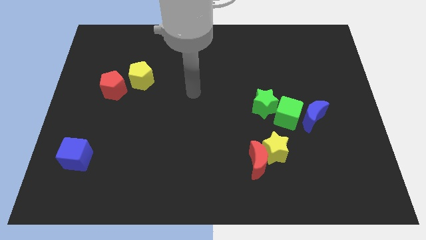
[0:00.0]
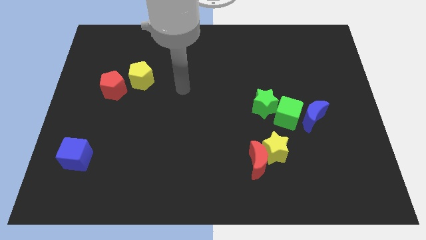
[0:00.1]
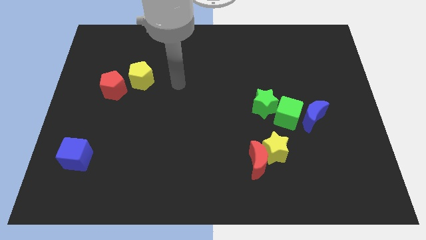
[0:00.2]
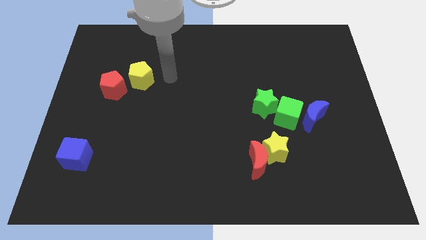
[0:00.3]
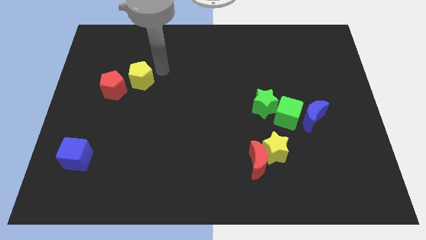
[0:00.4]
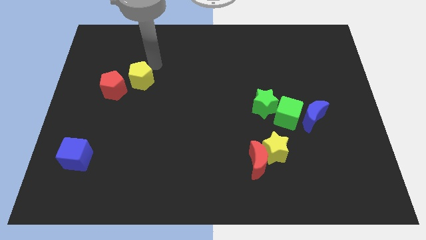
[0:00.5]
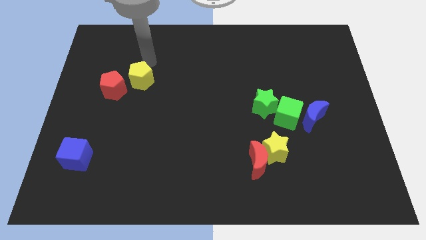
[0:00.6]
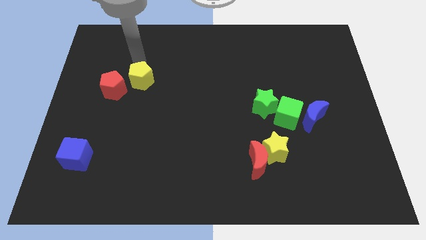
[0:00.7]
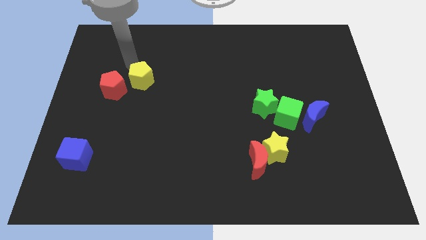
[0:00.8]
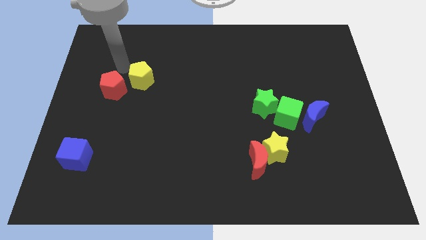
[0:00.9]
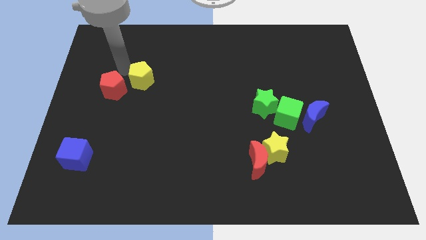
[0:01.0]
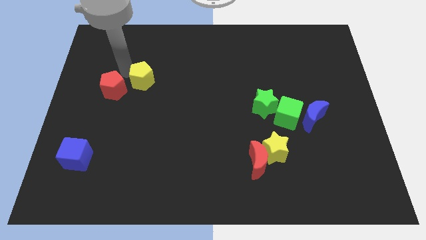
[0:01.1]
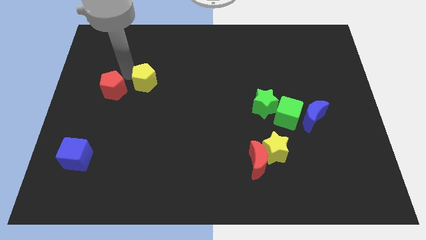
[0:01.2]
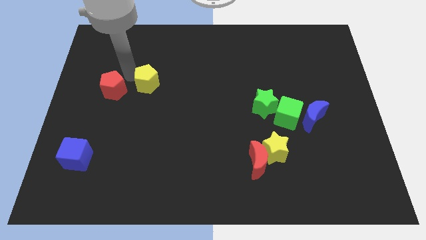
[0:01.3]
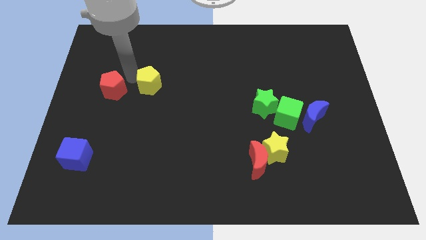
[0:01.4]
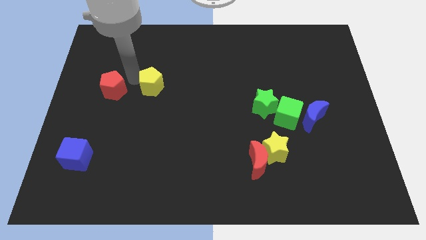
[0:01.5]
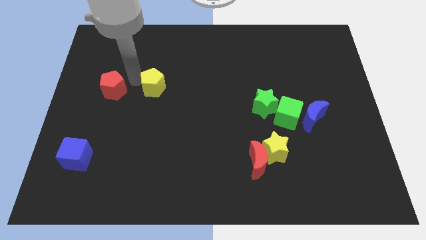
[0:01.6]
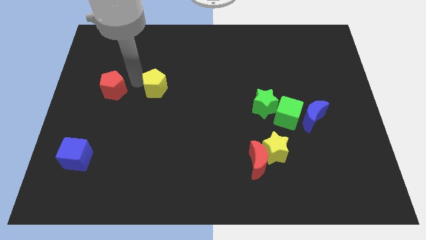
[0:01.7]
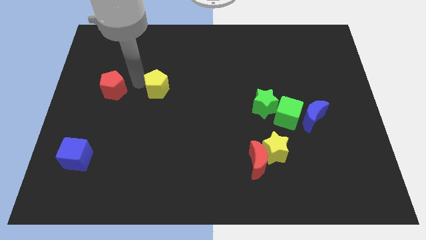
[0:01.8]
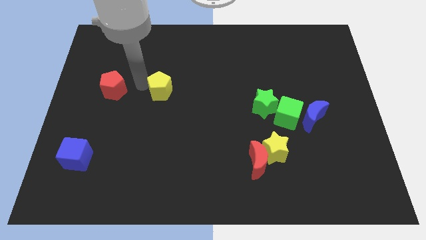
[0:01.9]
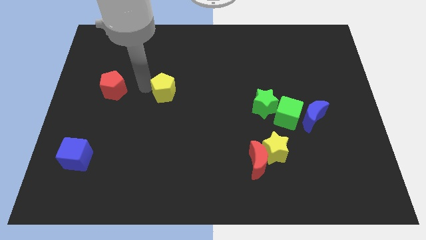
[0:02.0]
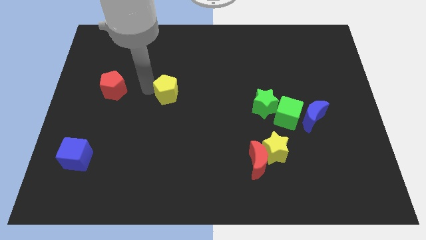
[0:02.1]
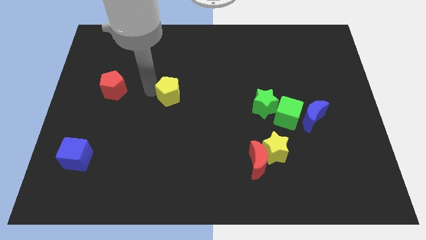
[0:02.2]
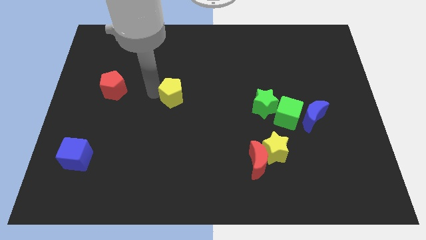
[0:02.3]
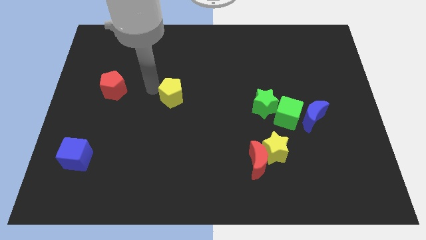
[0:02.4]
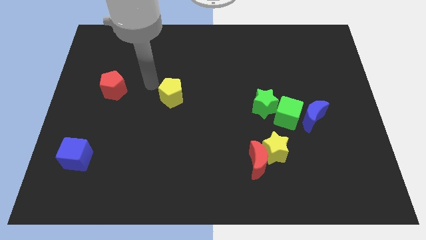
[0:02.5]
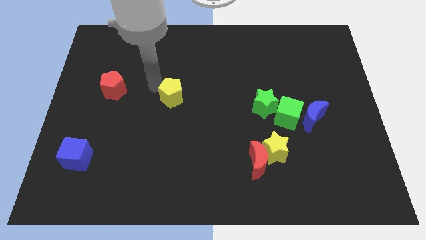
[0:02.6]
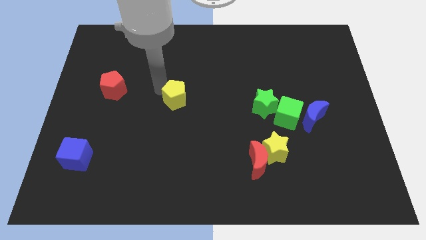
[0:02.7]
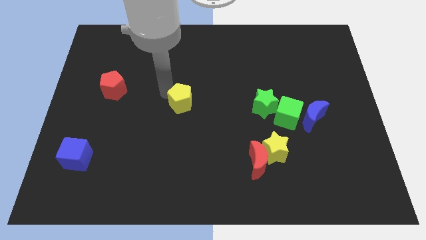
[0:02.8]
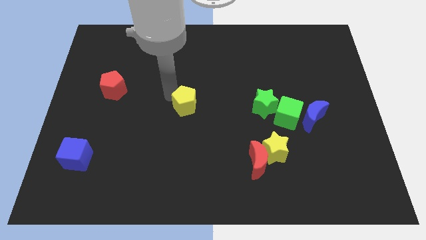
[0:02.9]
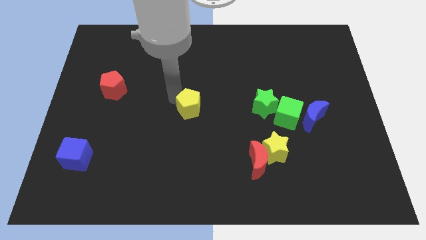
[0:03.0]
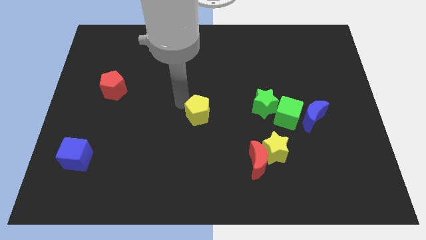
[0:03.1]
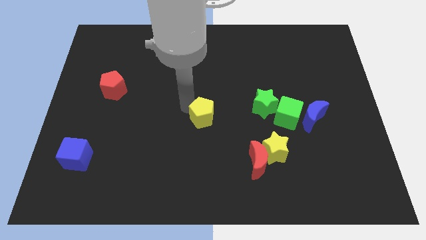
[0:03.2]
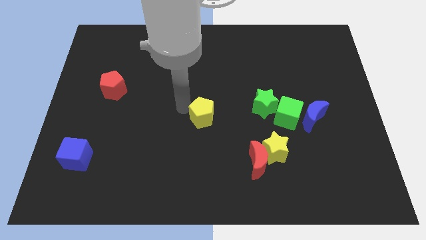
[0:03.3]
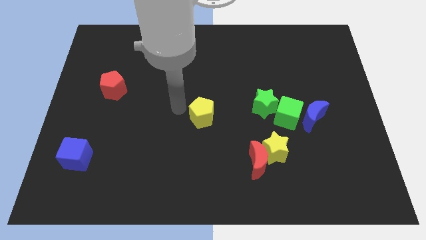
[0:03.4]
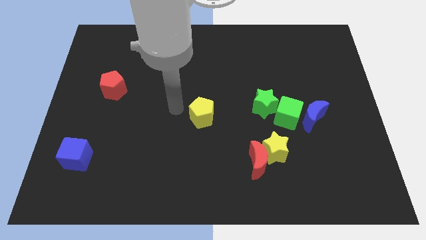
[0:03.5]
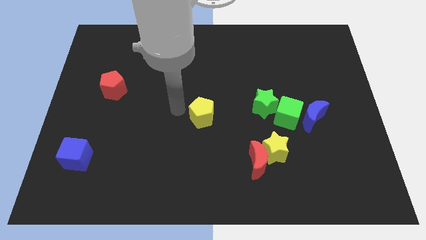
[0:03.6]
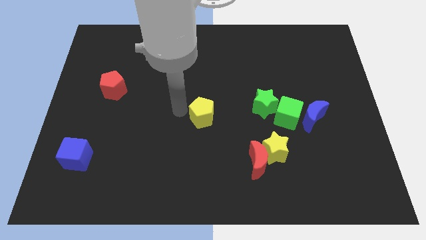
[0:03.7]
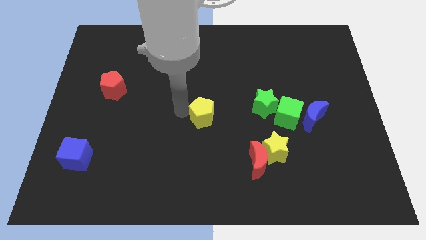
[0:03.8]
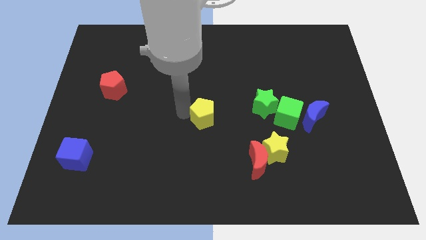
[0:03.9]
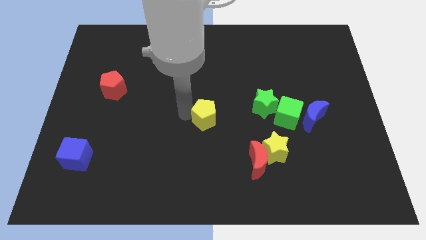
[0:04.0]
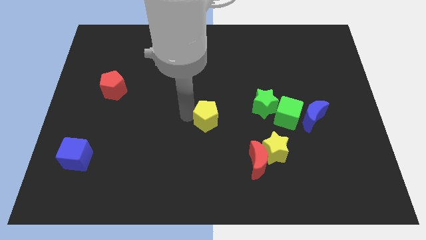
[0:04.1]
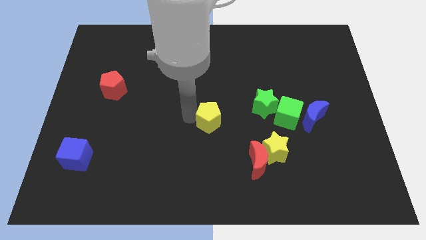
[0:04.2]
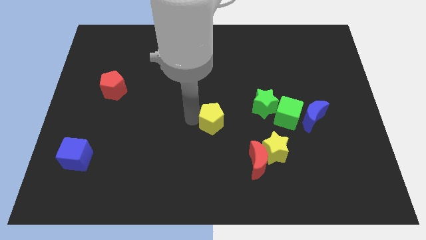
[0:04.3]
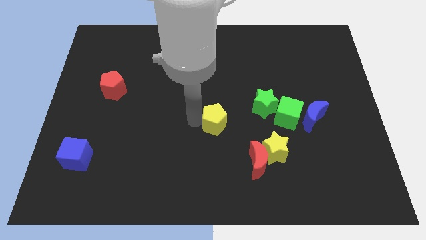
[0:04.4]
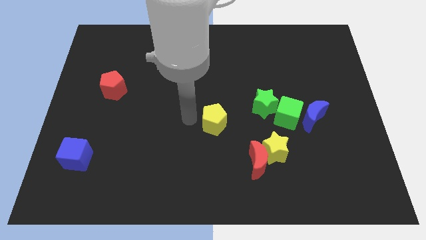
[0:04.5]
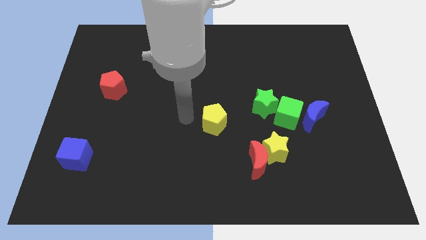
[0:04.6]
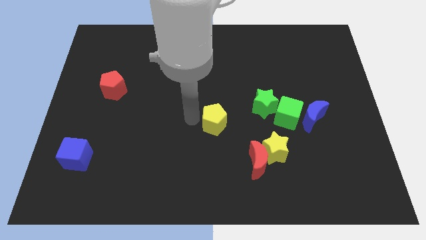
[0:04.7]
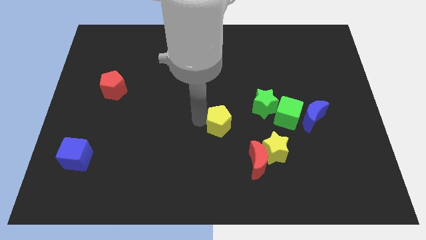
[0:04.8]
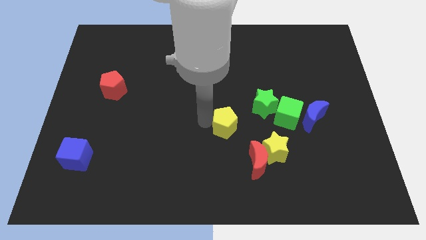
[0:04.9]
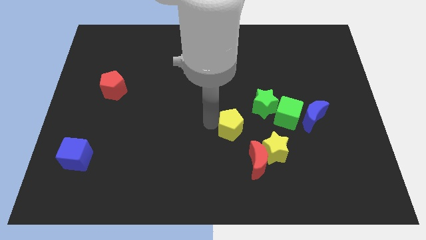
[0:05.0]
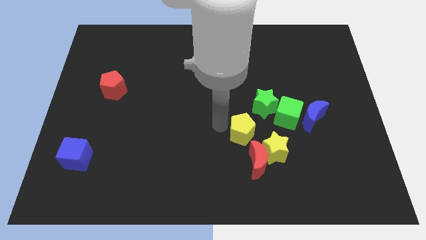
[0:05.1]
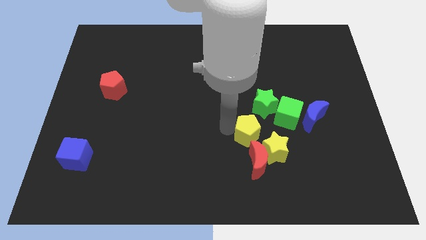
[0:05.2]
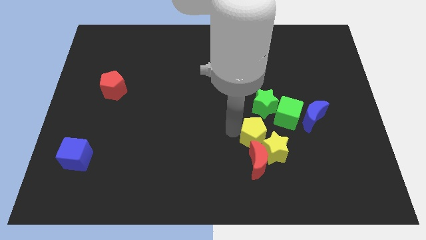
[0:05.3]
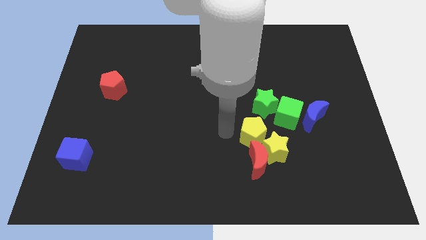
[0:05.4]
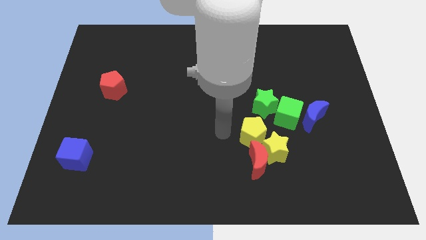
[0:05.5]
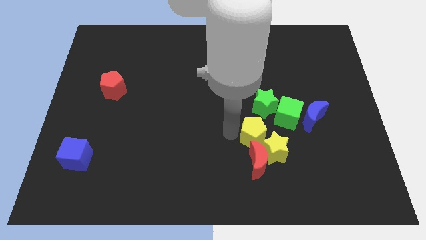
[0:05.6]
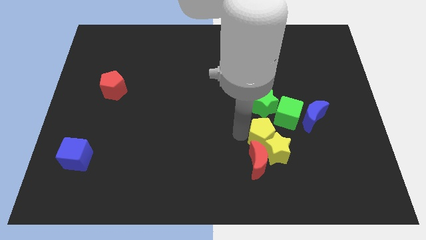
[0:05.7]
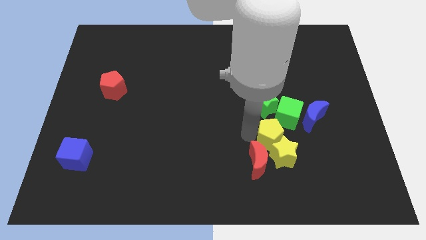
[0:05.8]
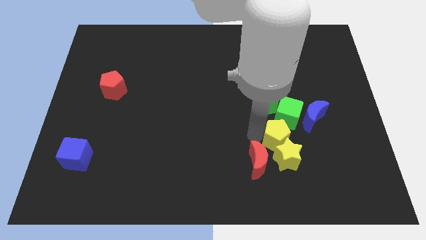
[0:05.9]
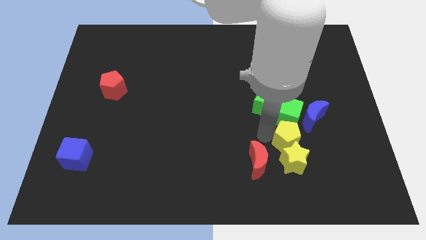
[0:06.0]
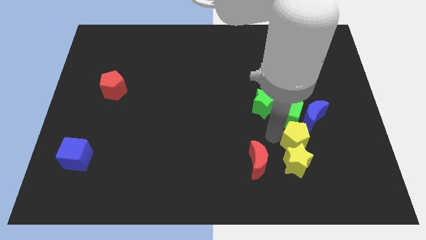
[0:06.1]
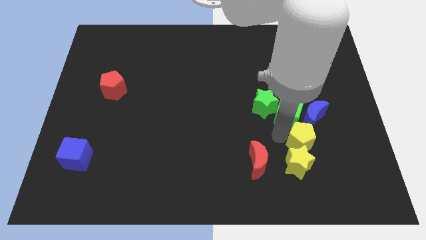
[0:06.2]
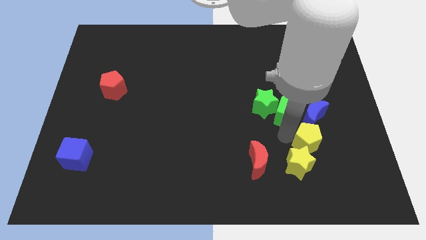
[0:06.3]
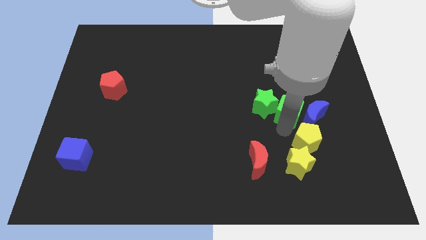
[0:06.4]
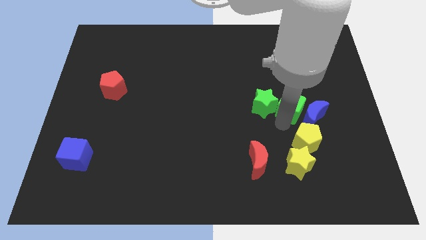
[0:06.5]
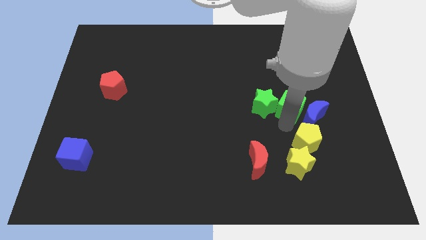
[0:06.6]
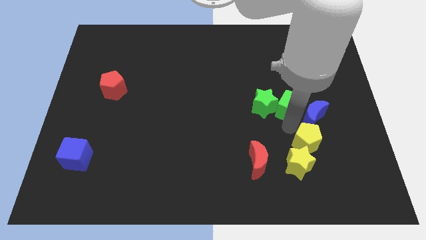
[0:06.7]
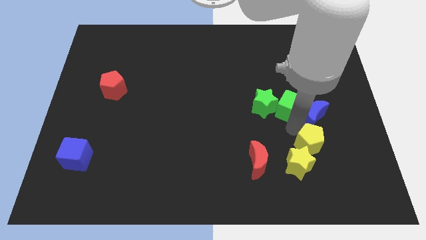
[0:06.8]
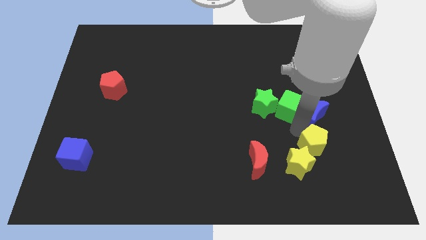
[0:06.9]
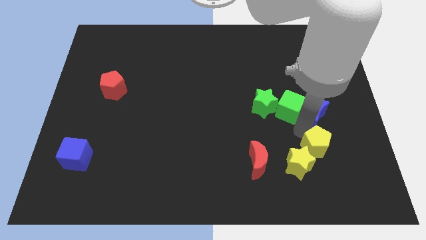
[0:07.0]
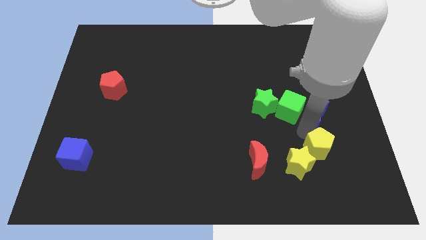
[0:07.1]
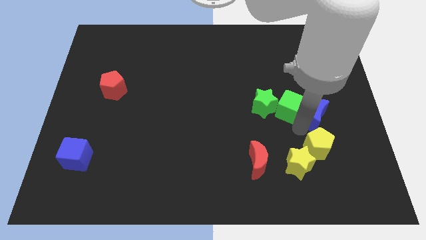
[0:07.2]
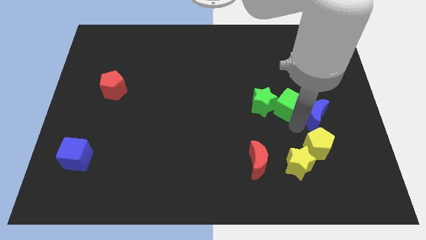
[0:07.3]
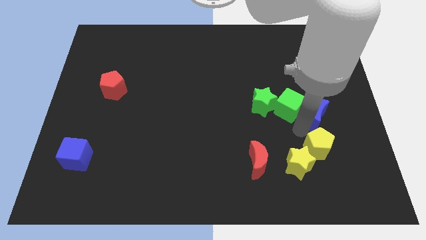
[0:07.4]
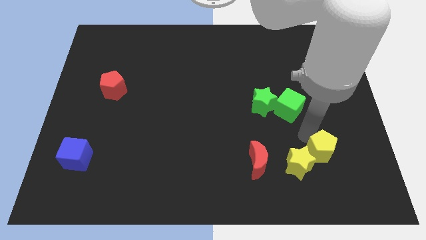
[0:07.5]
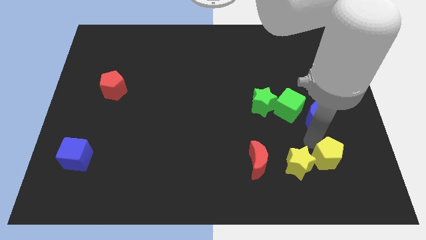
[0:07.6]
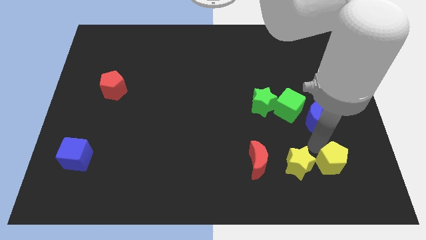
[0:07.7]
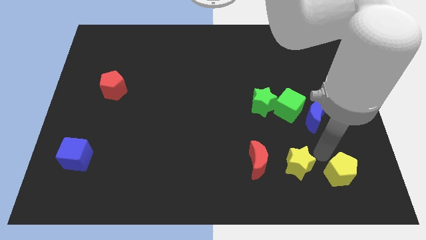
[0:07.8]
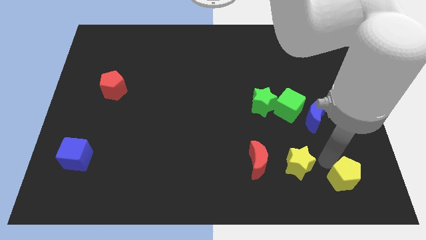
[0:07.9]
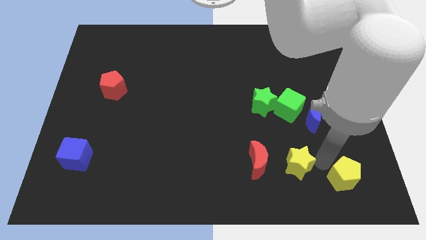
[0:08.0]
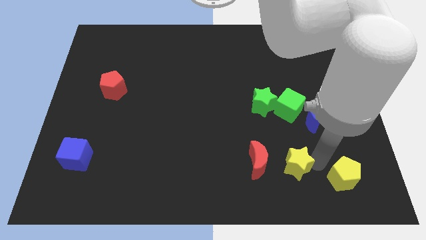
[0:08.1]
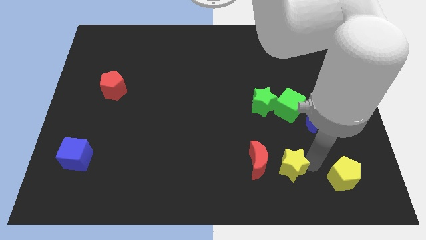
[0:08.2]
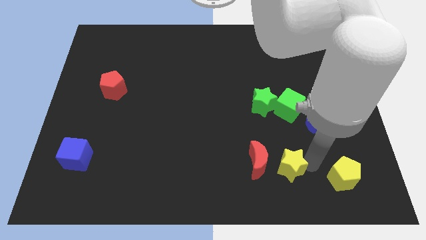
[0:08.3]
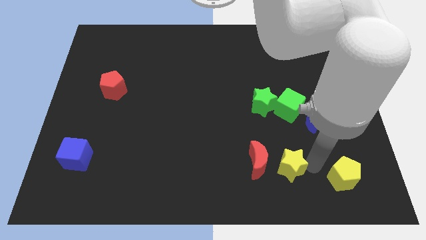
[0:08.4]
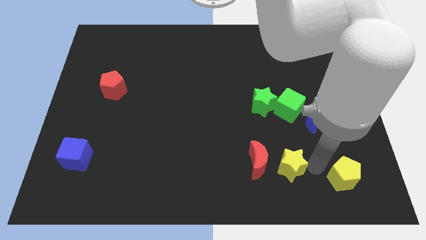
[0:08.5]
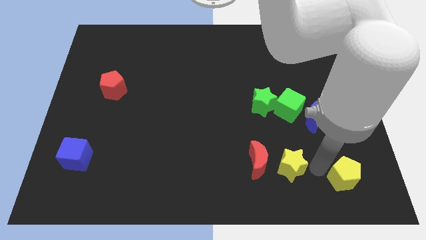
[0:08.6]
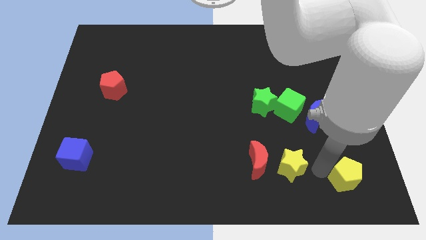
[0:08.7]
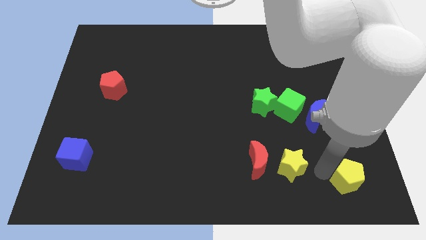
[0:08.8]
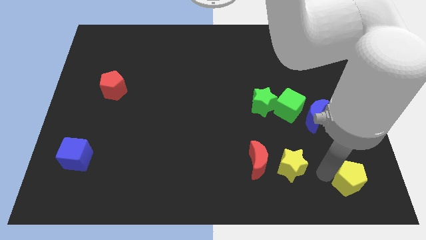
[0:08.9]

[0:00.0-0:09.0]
slide the yellow pentagon to the lower right corner
